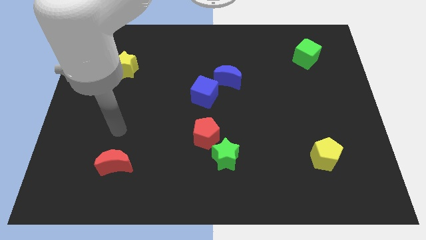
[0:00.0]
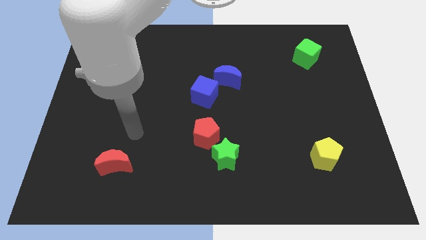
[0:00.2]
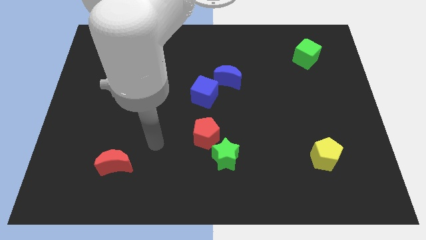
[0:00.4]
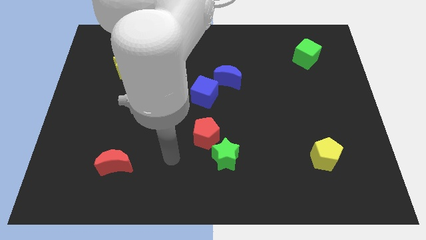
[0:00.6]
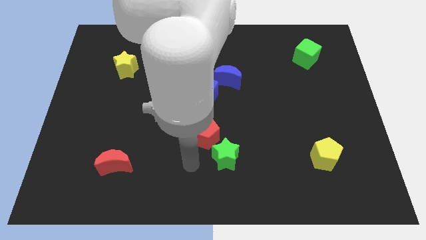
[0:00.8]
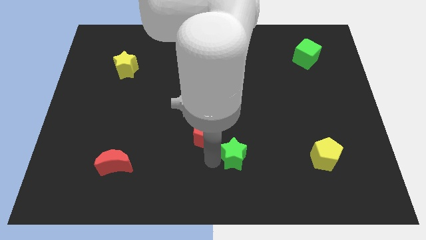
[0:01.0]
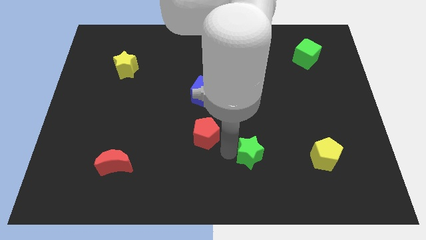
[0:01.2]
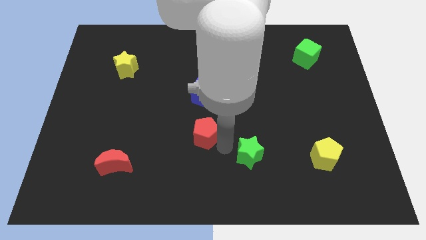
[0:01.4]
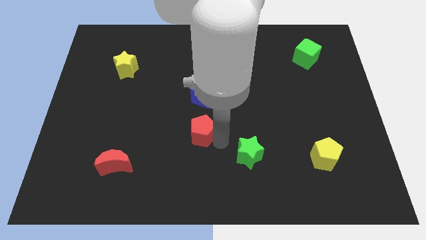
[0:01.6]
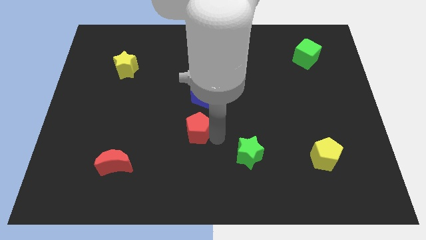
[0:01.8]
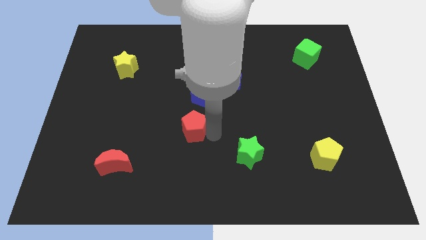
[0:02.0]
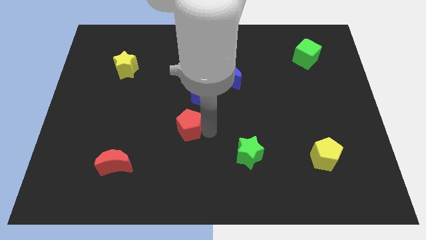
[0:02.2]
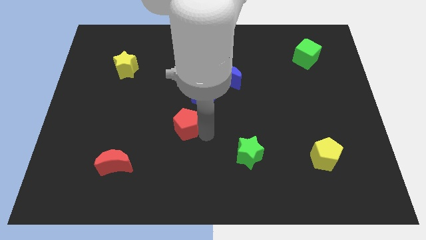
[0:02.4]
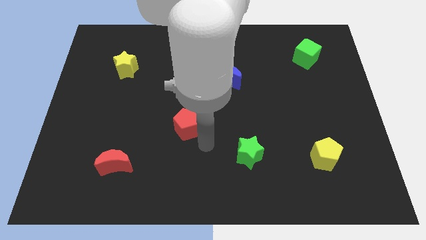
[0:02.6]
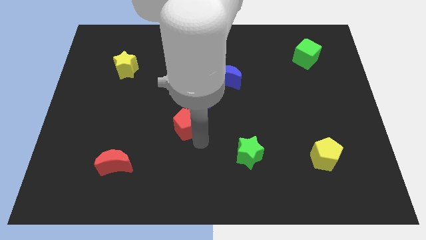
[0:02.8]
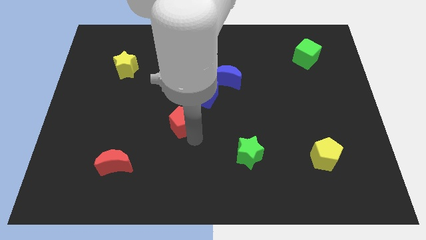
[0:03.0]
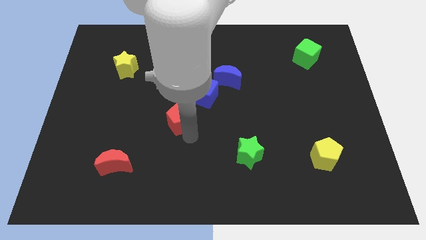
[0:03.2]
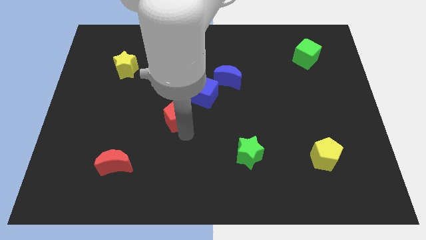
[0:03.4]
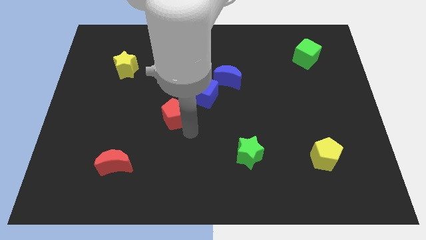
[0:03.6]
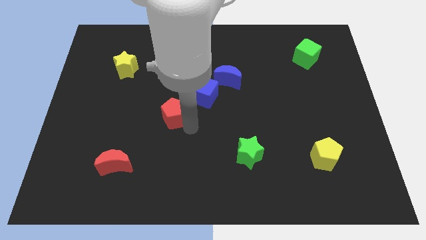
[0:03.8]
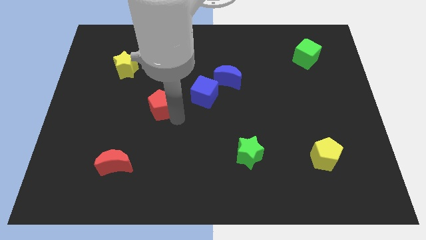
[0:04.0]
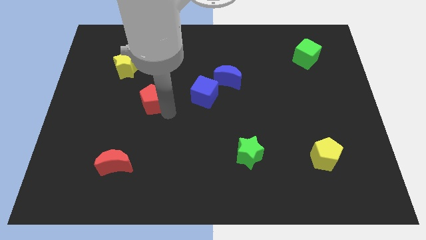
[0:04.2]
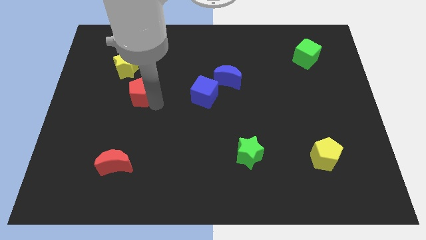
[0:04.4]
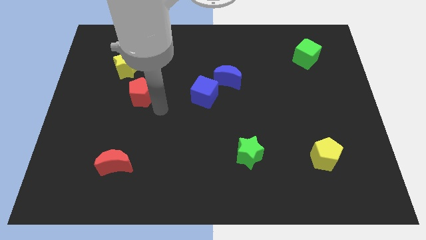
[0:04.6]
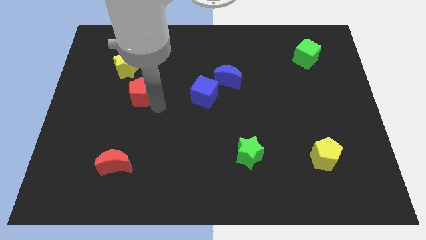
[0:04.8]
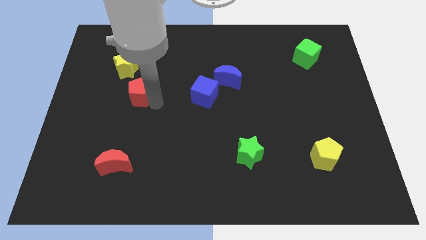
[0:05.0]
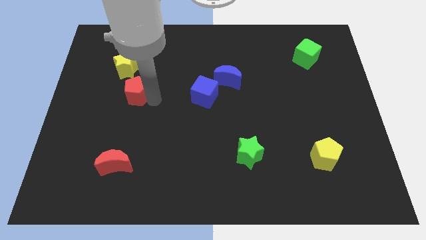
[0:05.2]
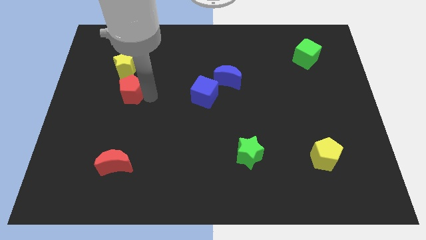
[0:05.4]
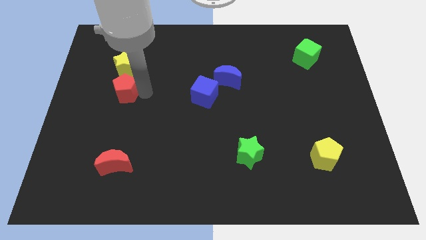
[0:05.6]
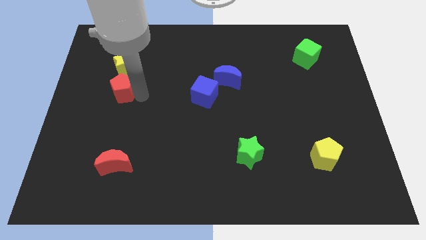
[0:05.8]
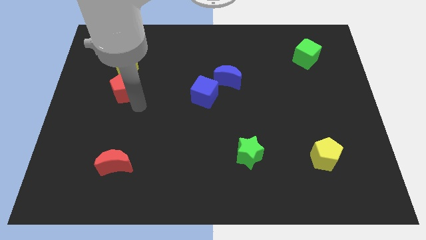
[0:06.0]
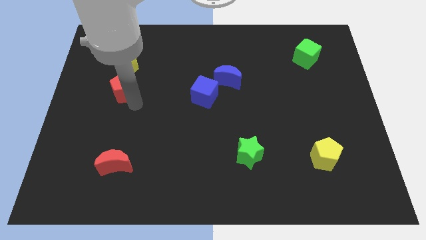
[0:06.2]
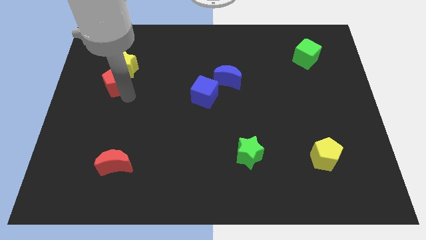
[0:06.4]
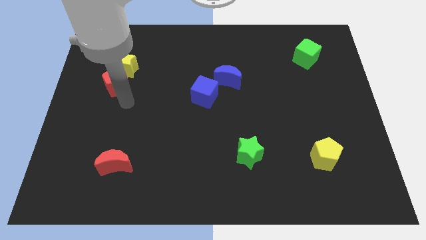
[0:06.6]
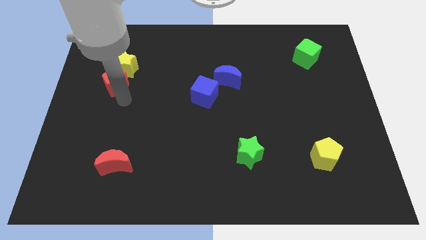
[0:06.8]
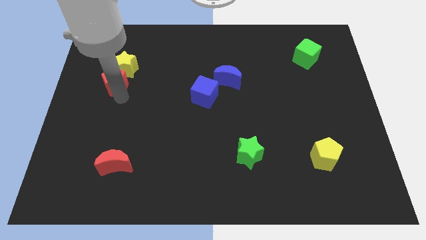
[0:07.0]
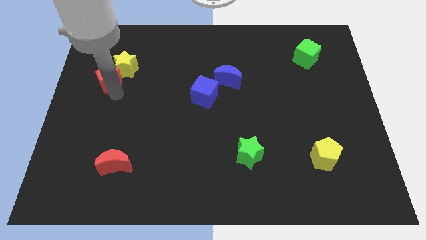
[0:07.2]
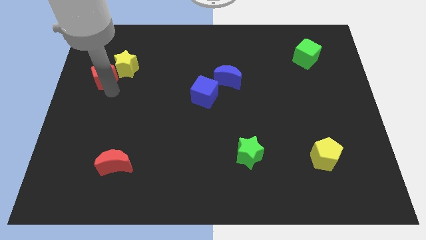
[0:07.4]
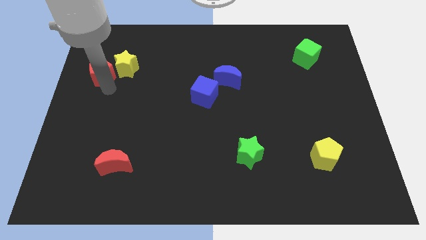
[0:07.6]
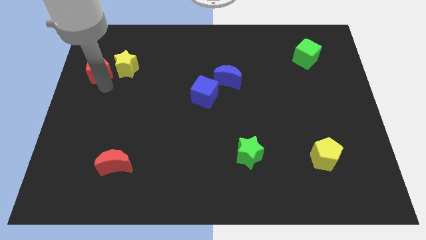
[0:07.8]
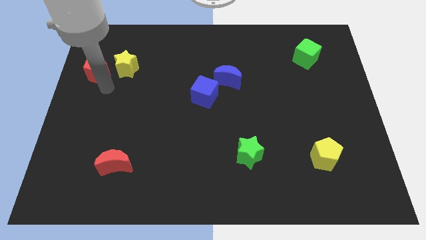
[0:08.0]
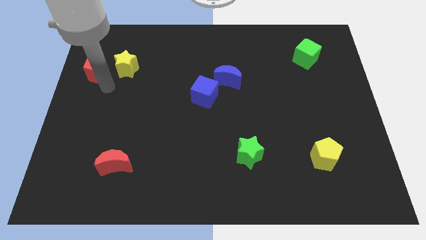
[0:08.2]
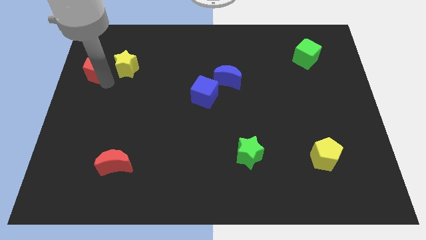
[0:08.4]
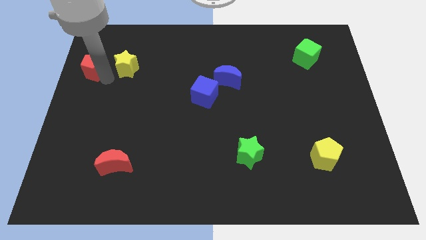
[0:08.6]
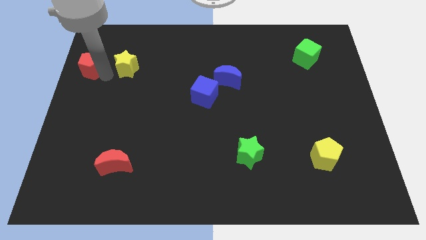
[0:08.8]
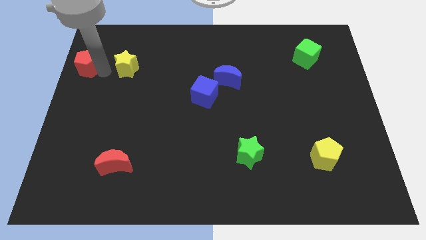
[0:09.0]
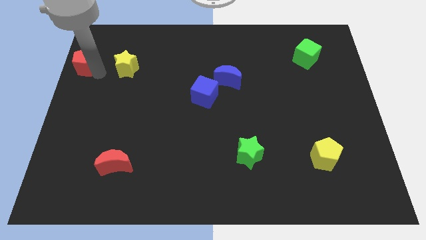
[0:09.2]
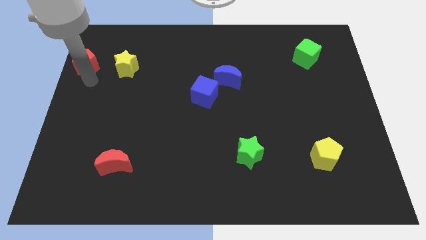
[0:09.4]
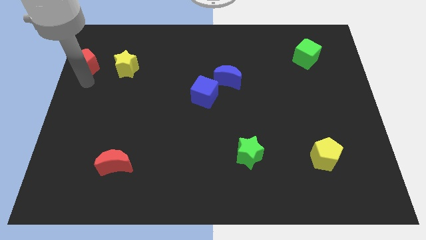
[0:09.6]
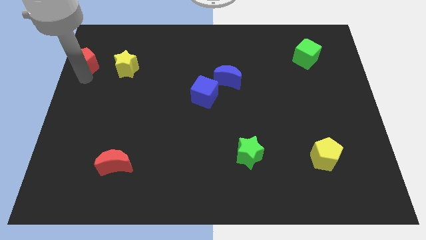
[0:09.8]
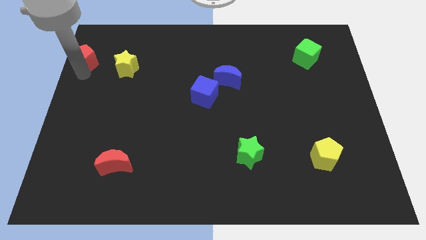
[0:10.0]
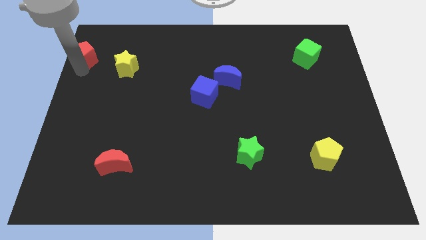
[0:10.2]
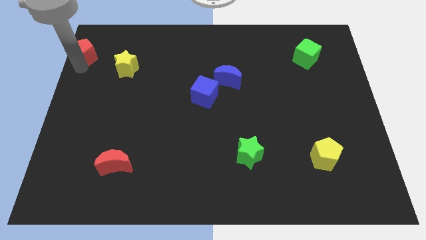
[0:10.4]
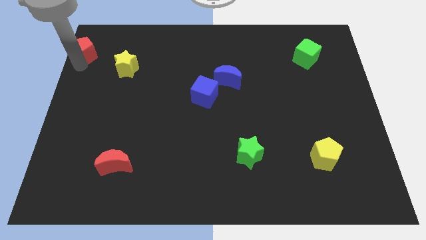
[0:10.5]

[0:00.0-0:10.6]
move the red pentagon to the top left

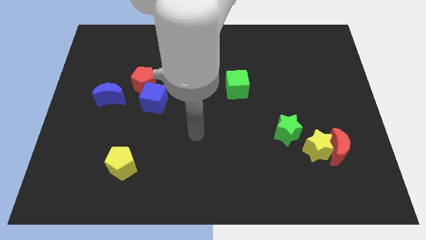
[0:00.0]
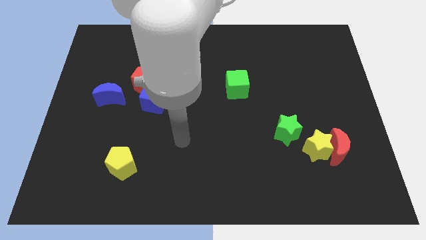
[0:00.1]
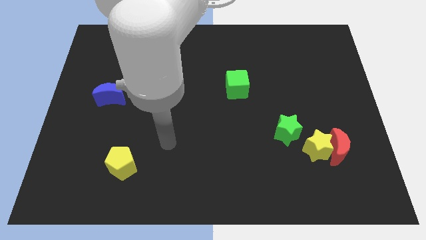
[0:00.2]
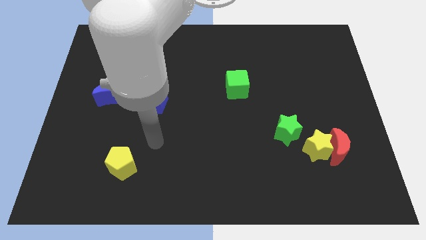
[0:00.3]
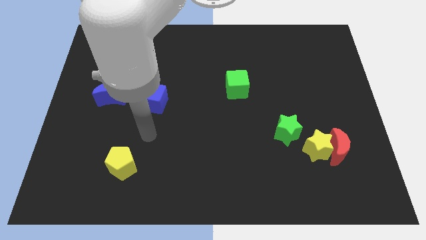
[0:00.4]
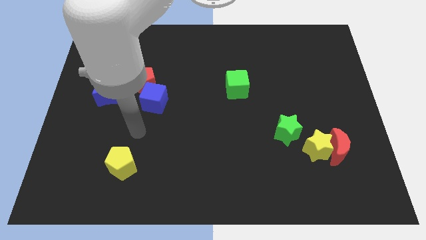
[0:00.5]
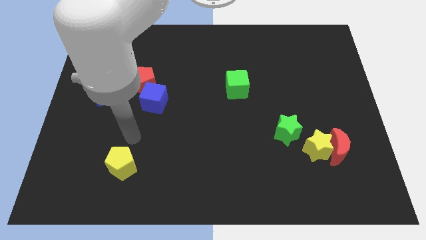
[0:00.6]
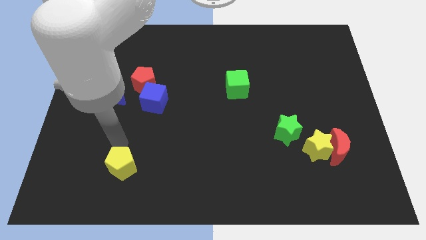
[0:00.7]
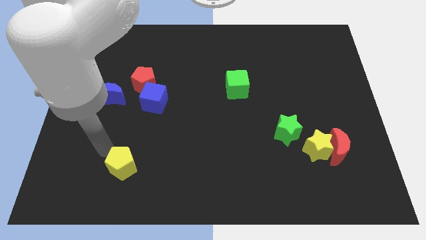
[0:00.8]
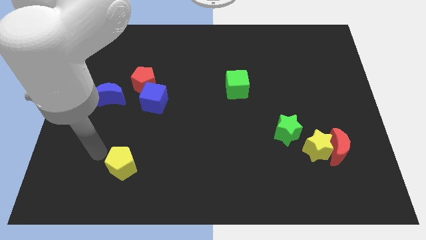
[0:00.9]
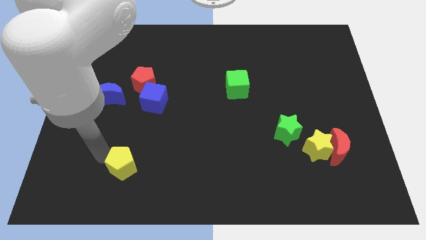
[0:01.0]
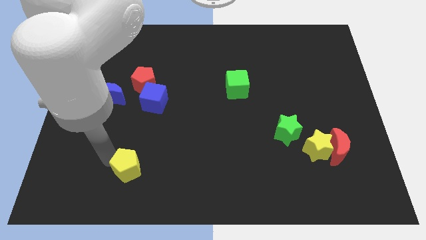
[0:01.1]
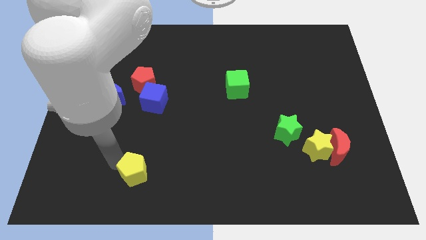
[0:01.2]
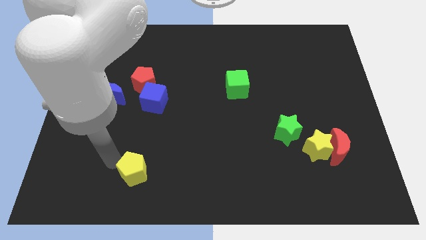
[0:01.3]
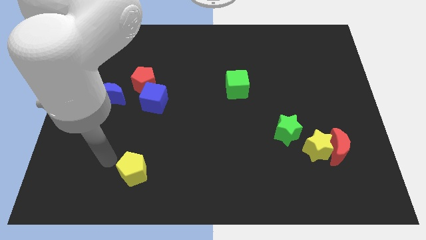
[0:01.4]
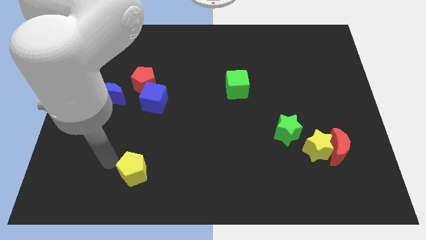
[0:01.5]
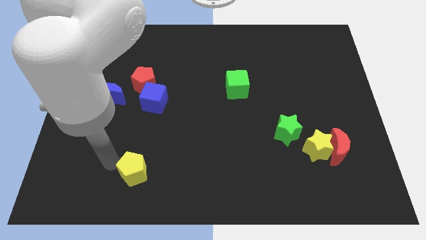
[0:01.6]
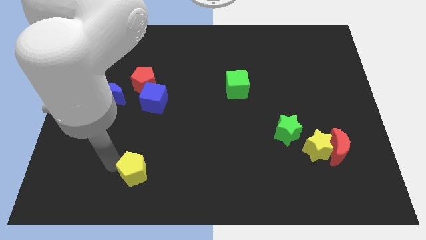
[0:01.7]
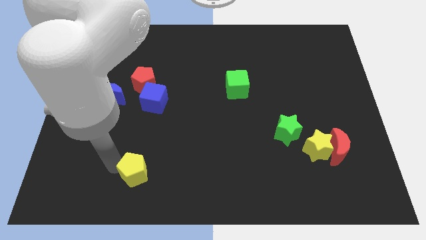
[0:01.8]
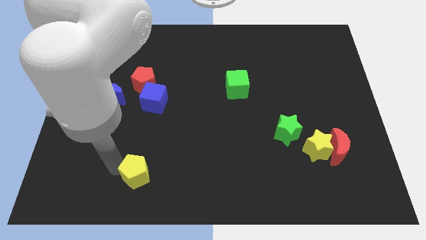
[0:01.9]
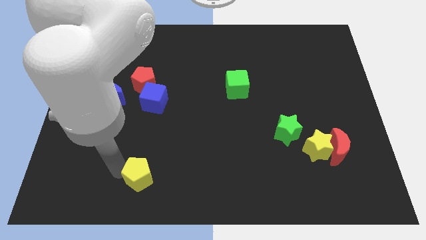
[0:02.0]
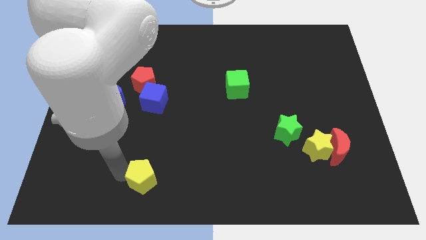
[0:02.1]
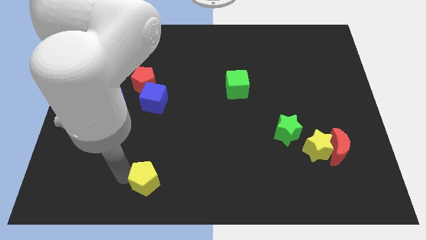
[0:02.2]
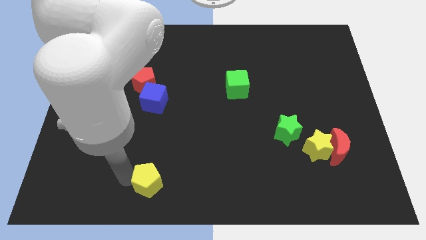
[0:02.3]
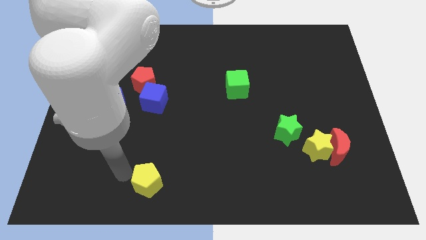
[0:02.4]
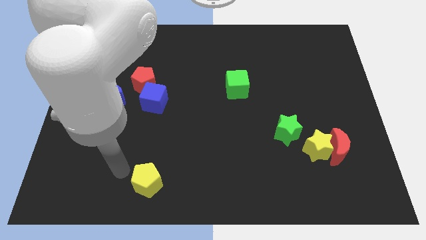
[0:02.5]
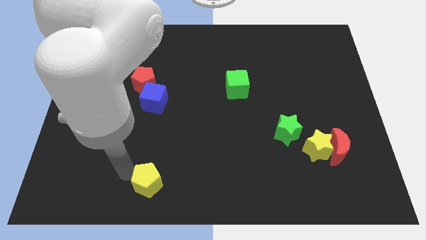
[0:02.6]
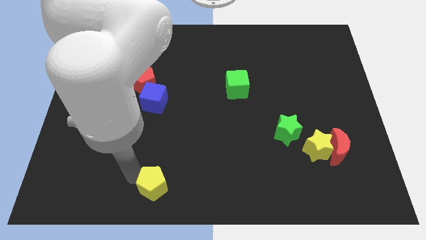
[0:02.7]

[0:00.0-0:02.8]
put the yellow pentagon to the bottom
